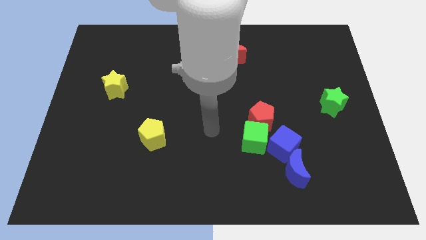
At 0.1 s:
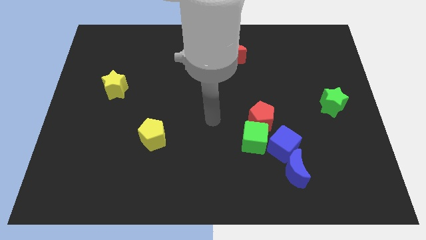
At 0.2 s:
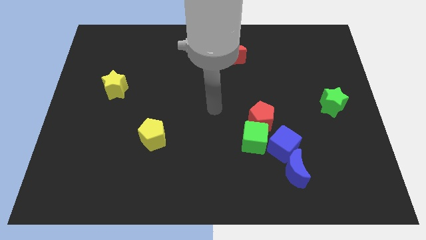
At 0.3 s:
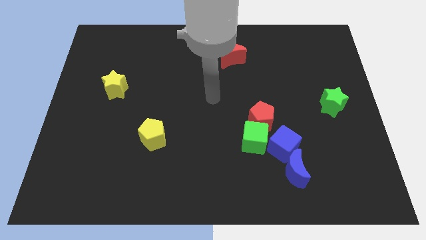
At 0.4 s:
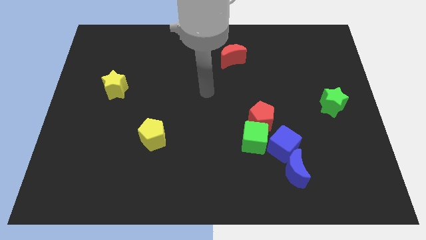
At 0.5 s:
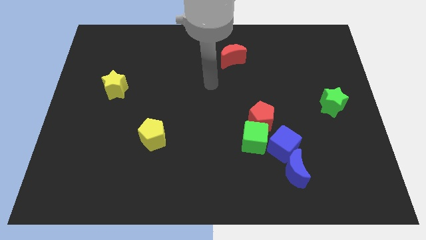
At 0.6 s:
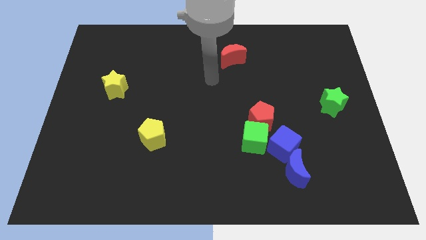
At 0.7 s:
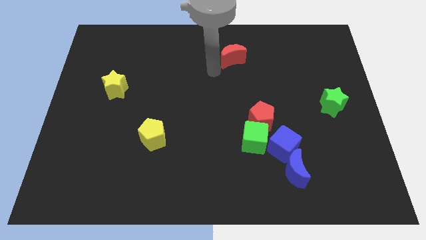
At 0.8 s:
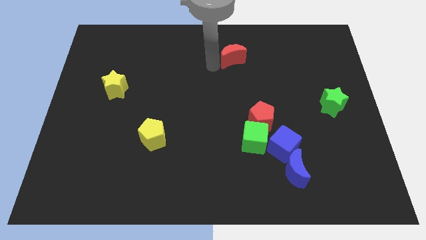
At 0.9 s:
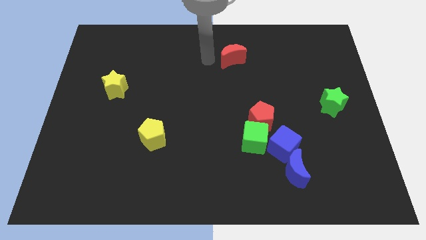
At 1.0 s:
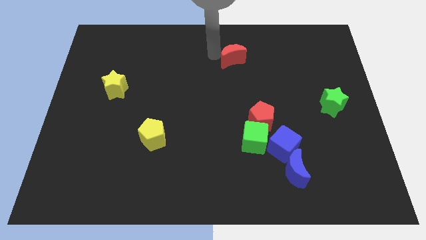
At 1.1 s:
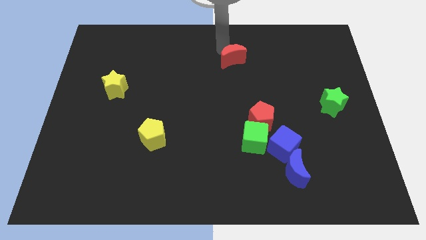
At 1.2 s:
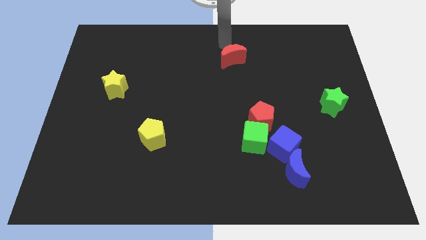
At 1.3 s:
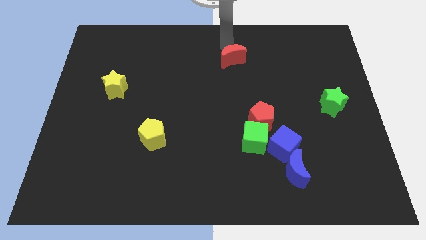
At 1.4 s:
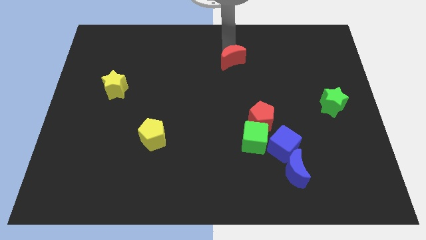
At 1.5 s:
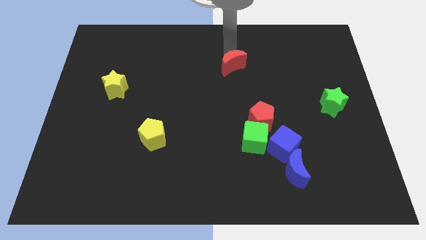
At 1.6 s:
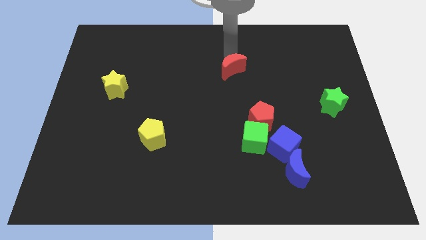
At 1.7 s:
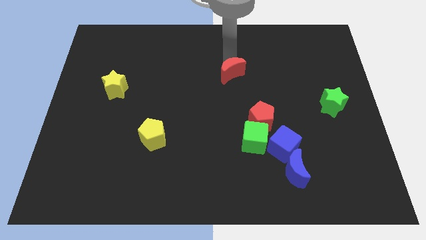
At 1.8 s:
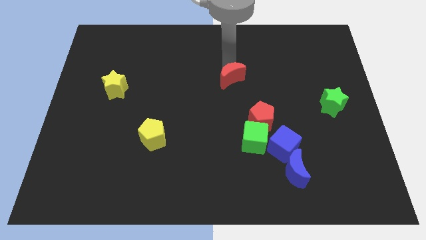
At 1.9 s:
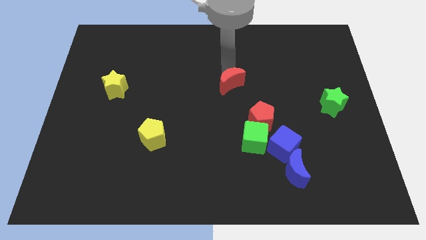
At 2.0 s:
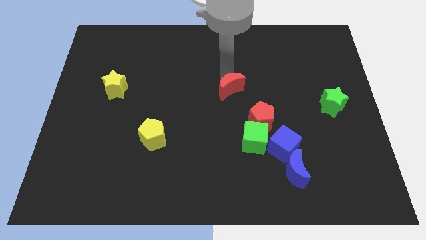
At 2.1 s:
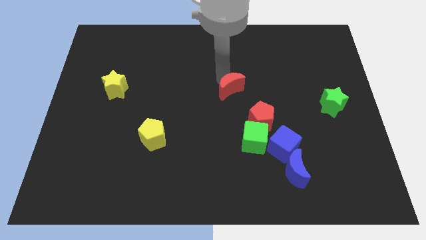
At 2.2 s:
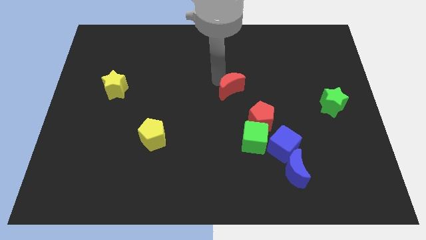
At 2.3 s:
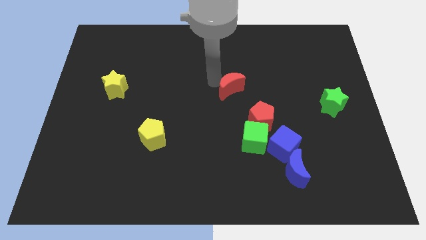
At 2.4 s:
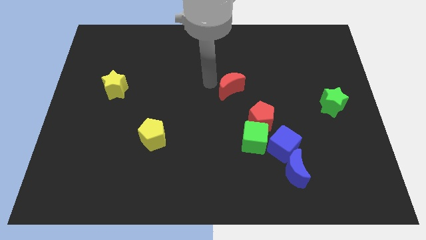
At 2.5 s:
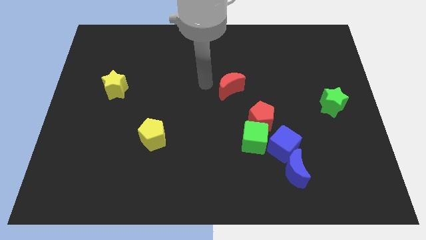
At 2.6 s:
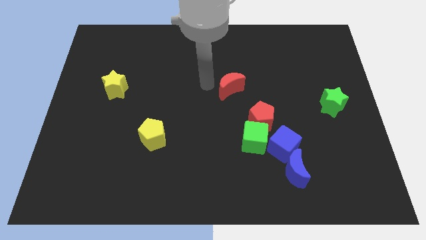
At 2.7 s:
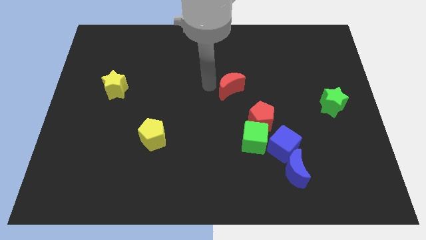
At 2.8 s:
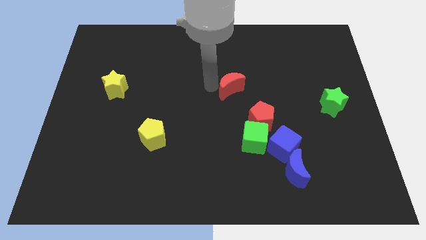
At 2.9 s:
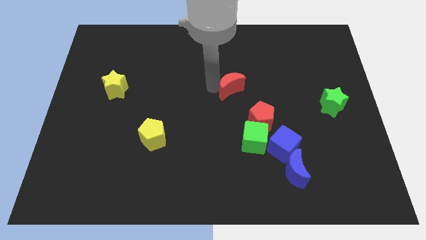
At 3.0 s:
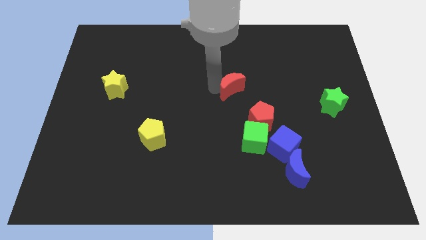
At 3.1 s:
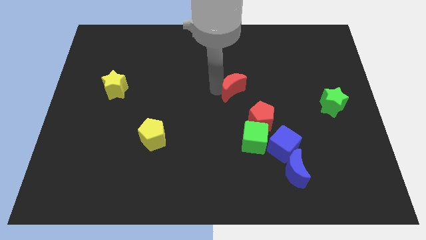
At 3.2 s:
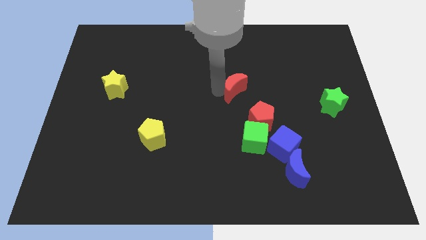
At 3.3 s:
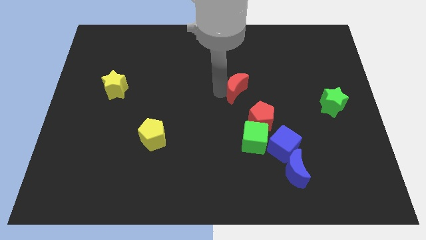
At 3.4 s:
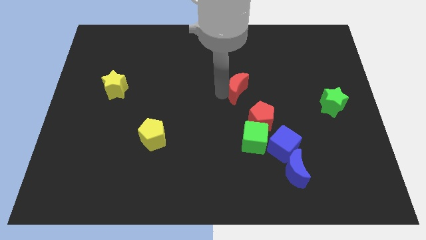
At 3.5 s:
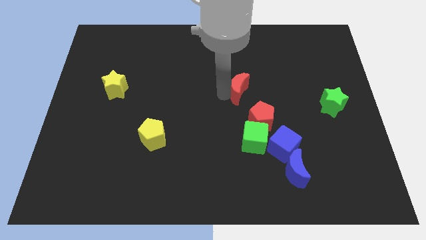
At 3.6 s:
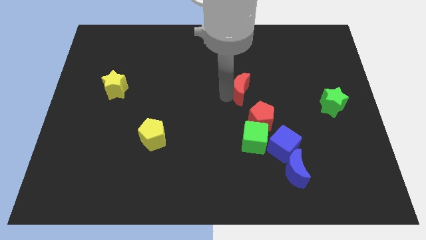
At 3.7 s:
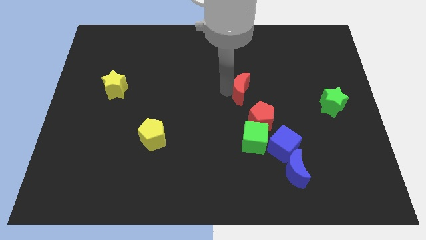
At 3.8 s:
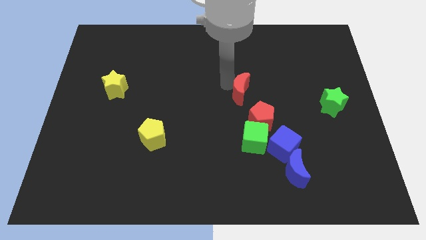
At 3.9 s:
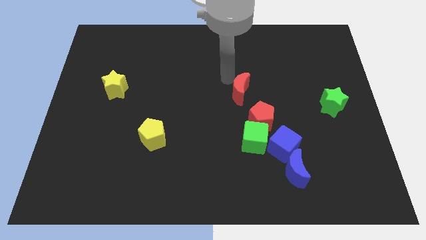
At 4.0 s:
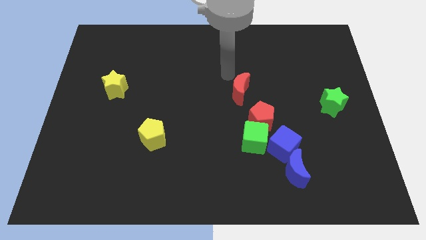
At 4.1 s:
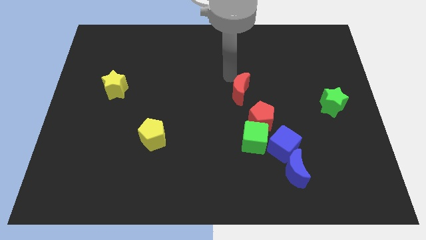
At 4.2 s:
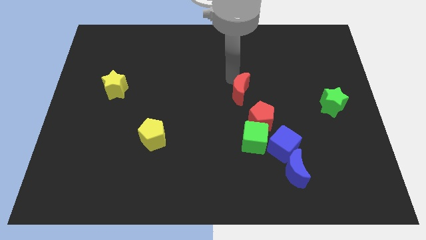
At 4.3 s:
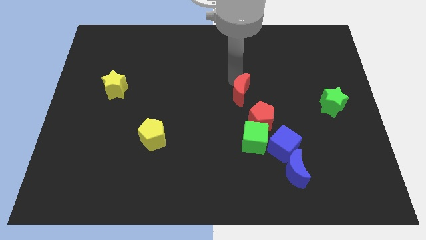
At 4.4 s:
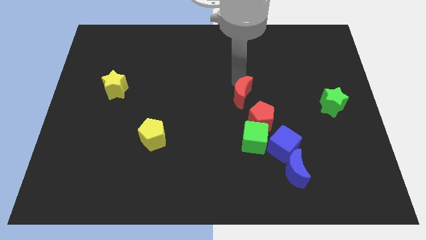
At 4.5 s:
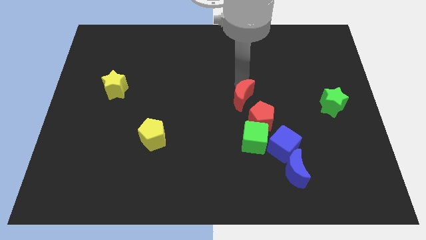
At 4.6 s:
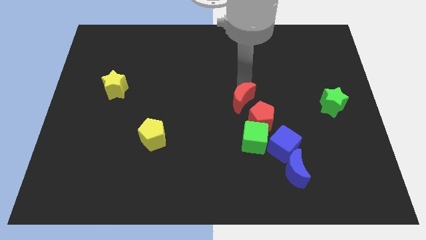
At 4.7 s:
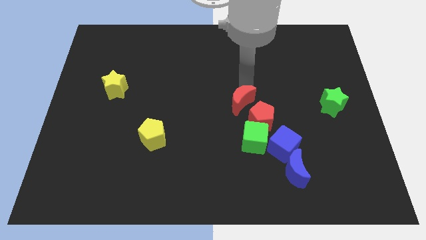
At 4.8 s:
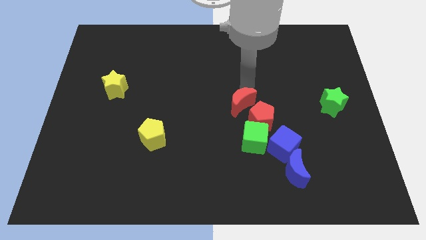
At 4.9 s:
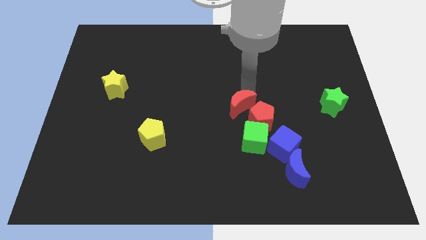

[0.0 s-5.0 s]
push the red moon to the red pentagon

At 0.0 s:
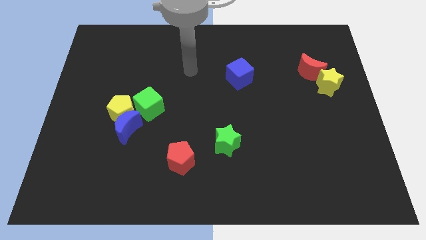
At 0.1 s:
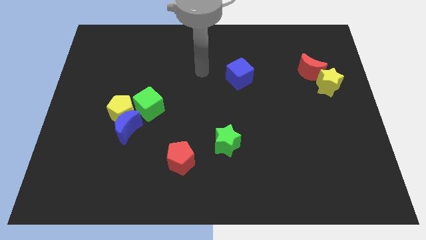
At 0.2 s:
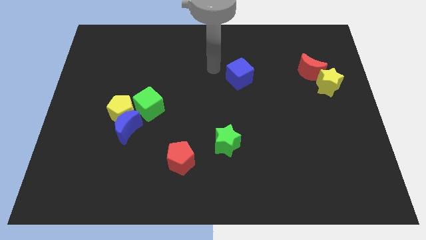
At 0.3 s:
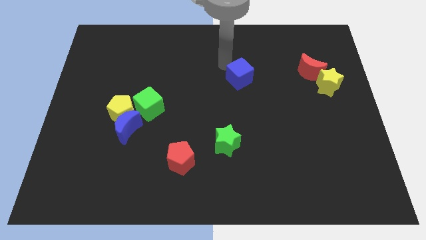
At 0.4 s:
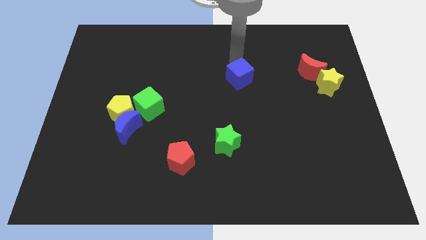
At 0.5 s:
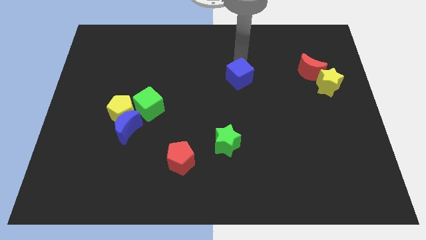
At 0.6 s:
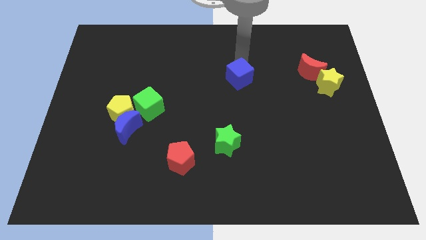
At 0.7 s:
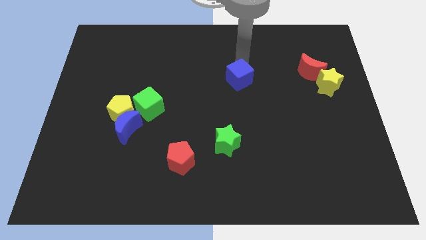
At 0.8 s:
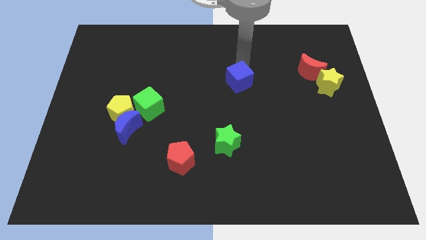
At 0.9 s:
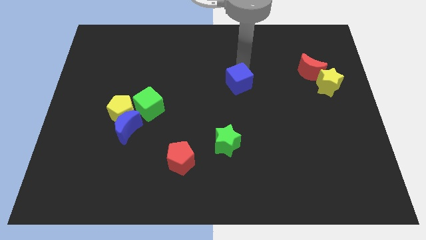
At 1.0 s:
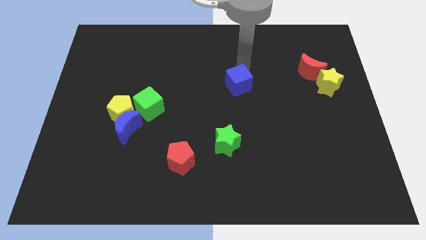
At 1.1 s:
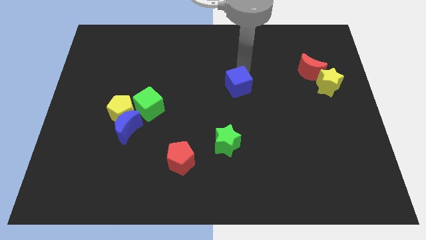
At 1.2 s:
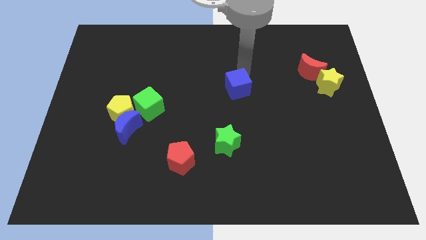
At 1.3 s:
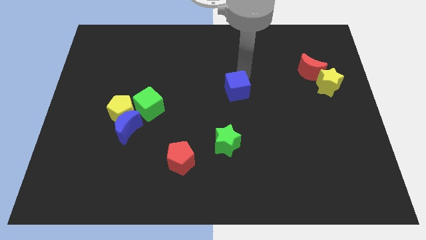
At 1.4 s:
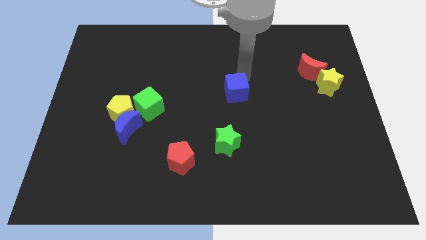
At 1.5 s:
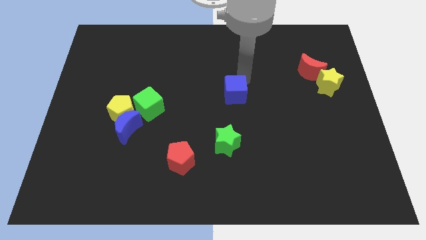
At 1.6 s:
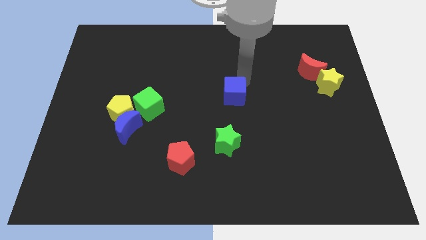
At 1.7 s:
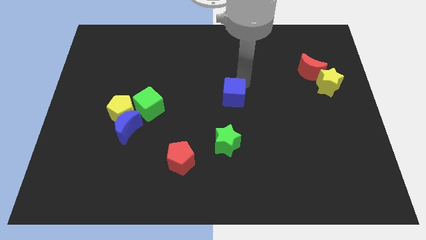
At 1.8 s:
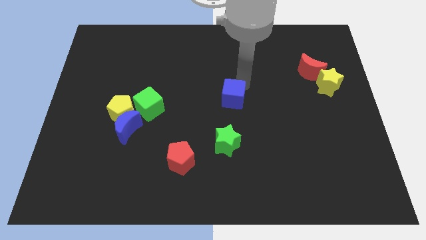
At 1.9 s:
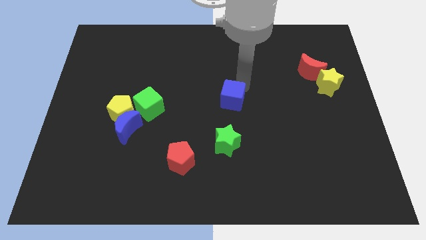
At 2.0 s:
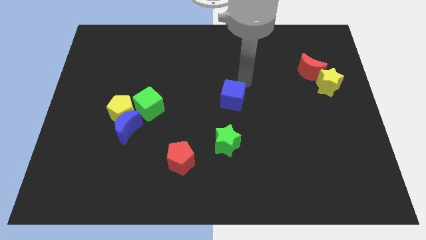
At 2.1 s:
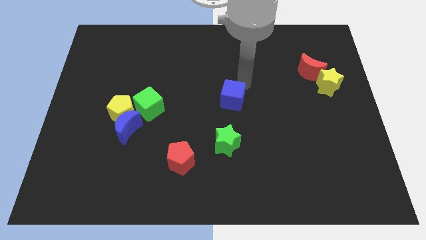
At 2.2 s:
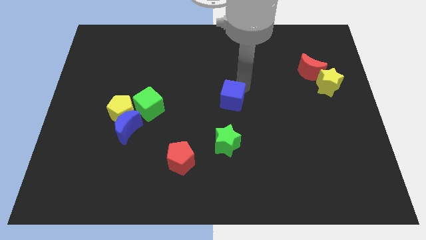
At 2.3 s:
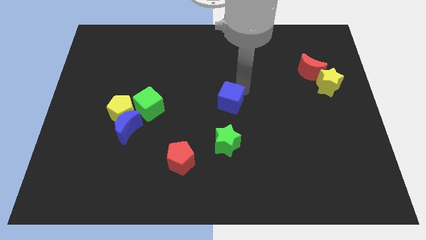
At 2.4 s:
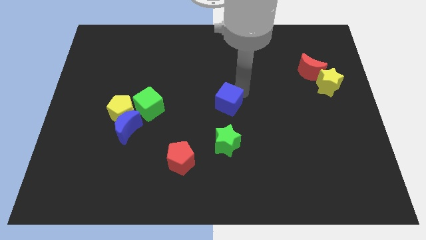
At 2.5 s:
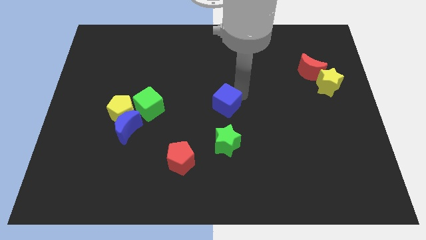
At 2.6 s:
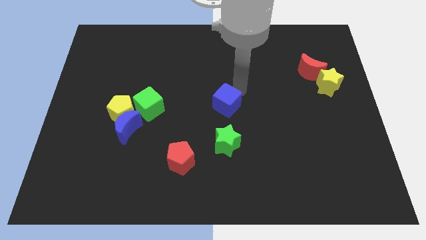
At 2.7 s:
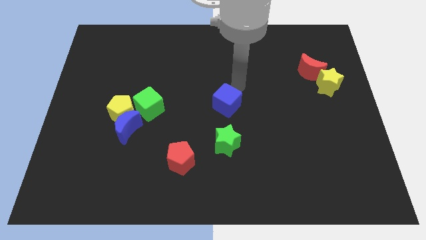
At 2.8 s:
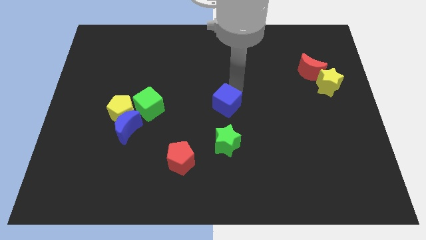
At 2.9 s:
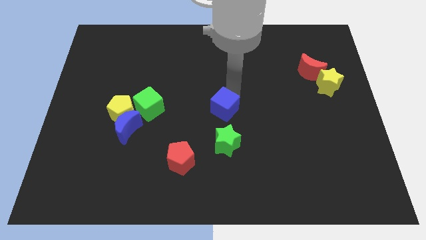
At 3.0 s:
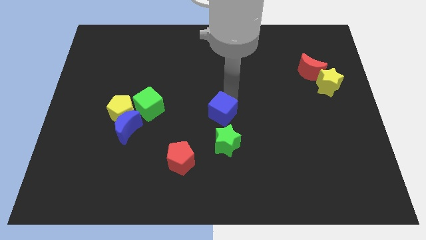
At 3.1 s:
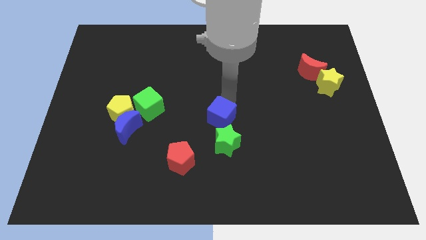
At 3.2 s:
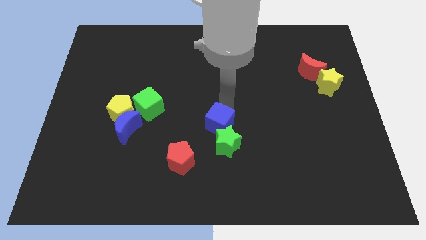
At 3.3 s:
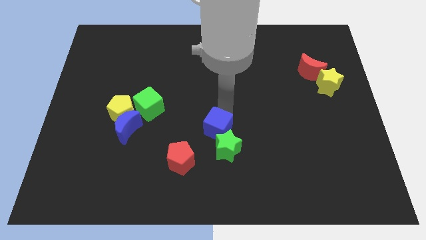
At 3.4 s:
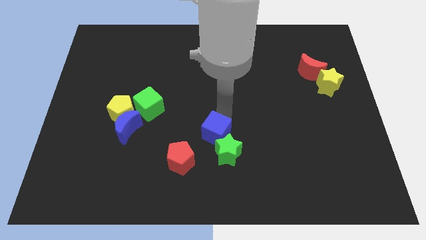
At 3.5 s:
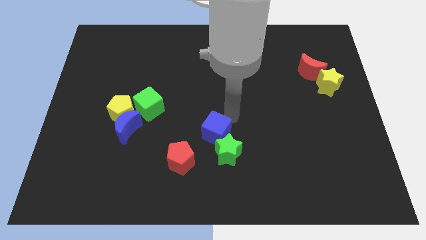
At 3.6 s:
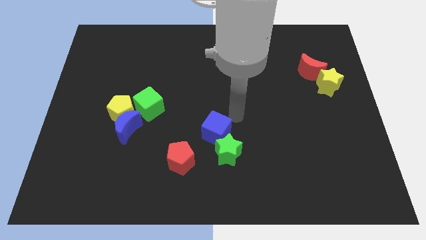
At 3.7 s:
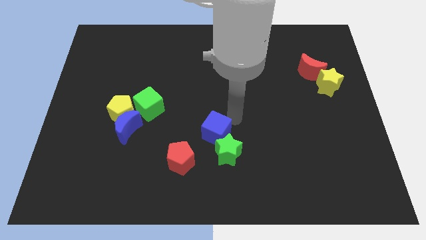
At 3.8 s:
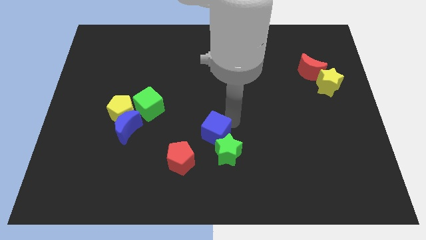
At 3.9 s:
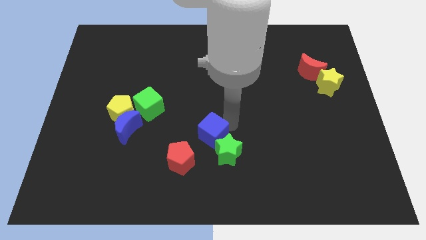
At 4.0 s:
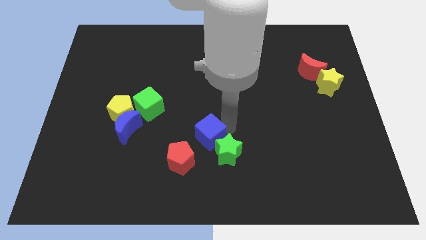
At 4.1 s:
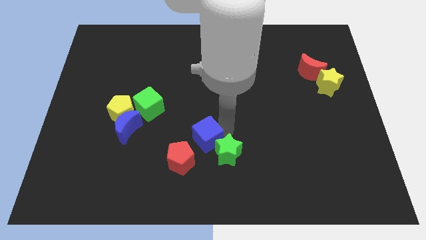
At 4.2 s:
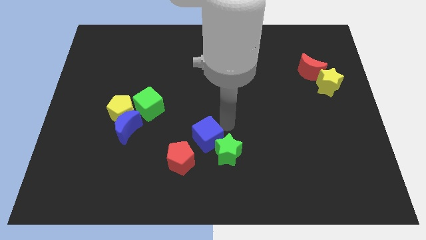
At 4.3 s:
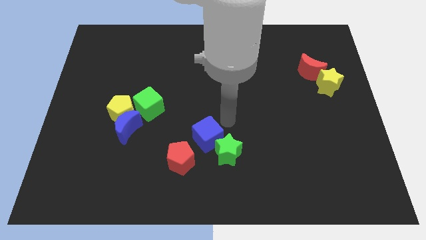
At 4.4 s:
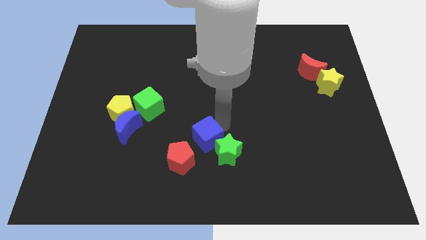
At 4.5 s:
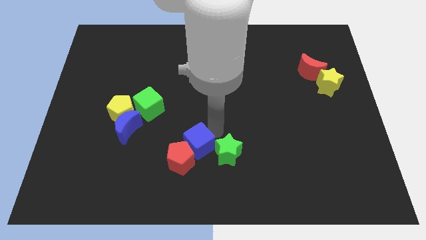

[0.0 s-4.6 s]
put the blue cube next to the red pentagon
